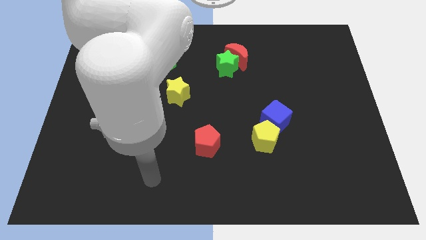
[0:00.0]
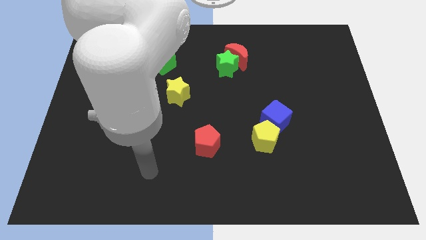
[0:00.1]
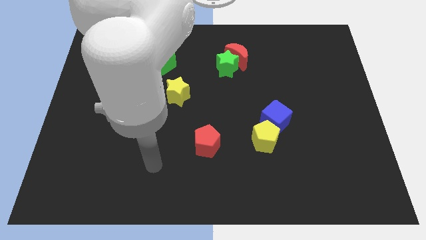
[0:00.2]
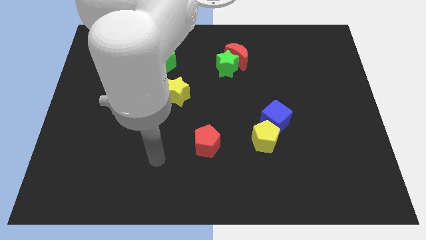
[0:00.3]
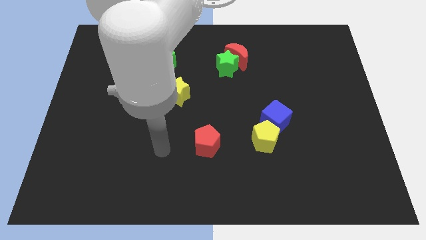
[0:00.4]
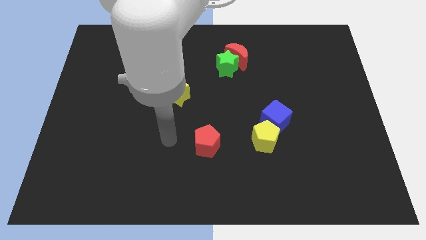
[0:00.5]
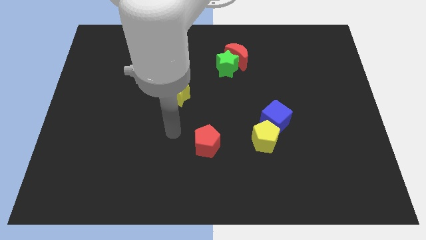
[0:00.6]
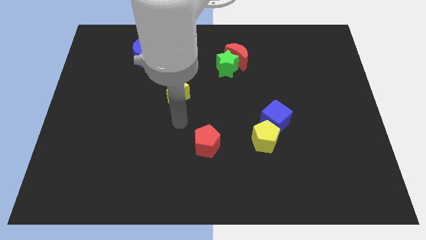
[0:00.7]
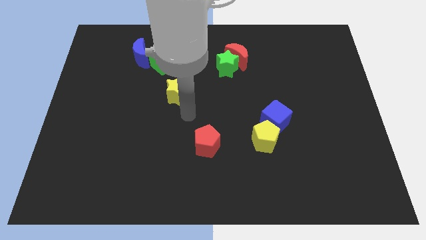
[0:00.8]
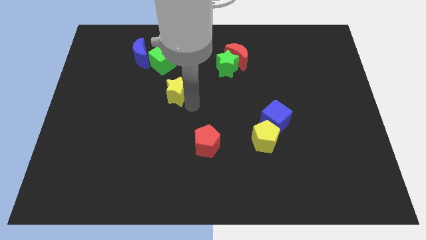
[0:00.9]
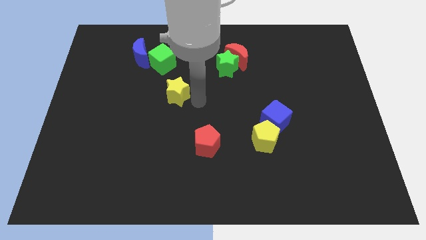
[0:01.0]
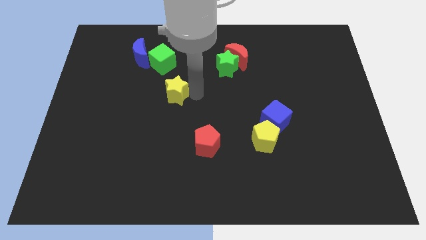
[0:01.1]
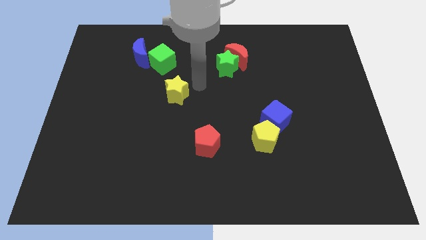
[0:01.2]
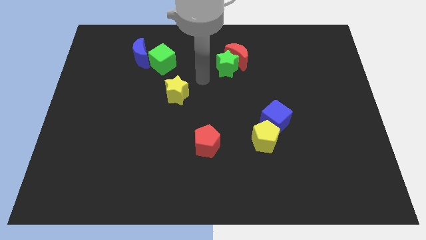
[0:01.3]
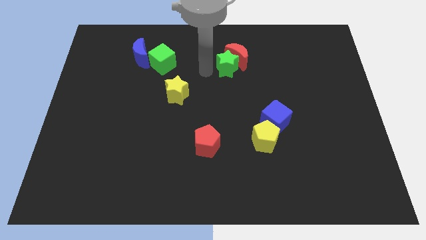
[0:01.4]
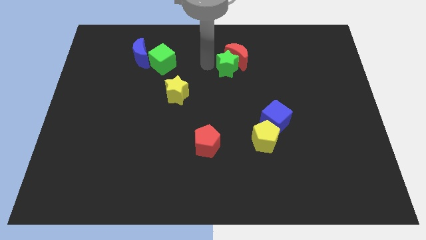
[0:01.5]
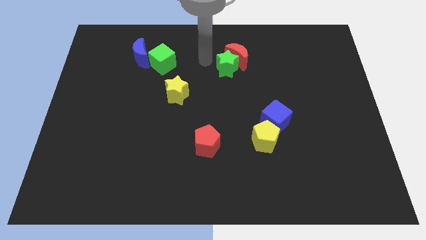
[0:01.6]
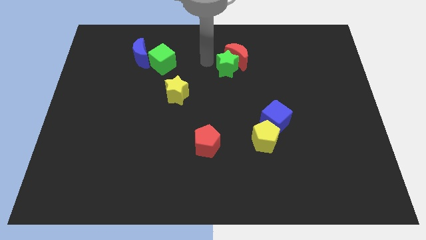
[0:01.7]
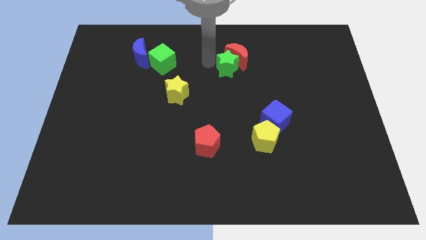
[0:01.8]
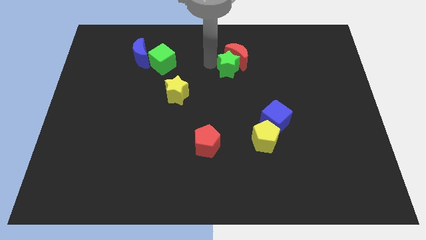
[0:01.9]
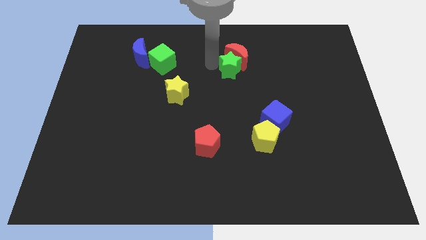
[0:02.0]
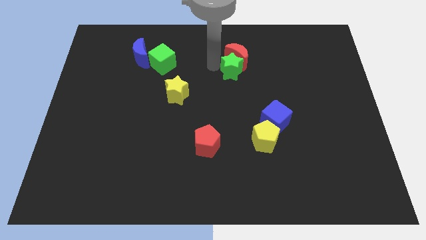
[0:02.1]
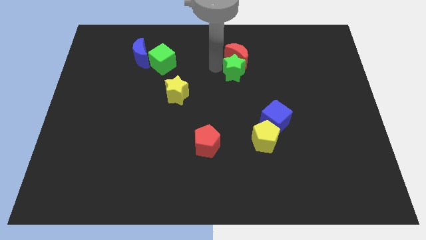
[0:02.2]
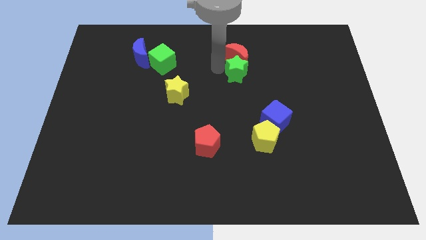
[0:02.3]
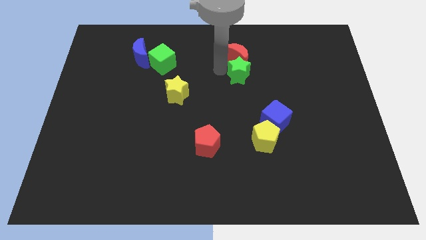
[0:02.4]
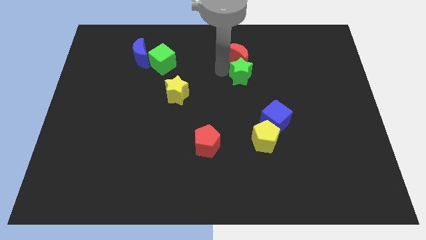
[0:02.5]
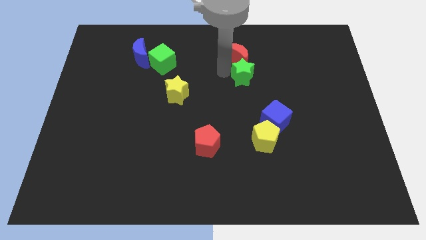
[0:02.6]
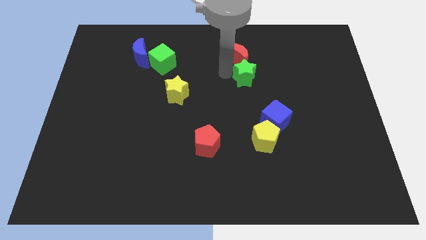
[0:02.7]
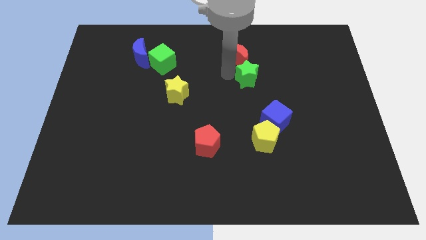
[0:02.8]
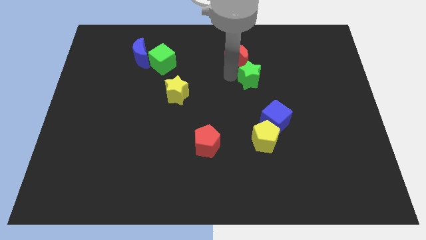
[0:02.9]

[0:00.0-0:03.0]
slightly move the green star downwards and then right

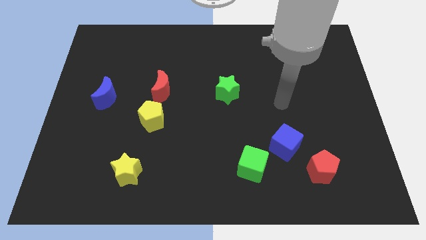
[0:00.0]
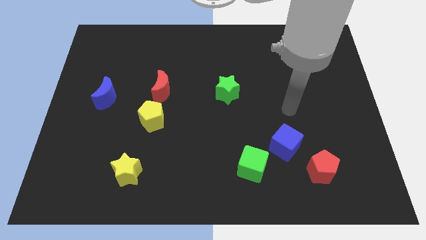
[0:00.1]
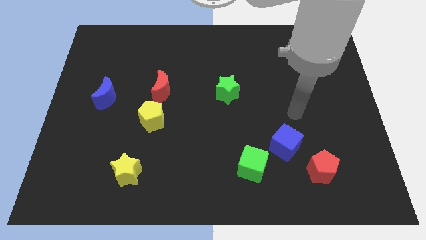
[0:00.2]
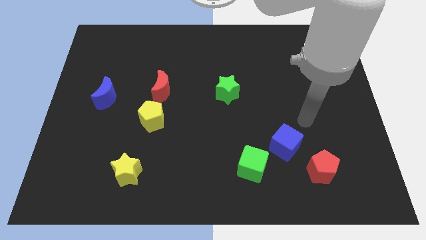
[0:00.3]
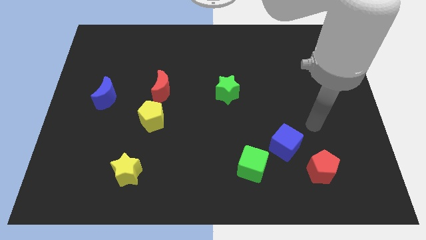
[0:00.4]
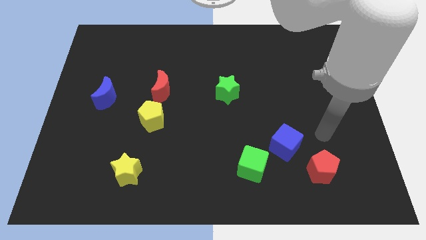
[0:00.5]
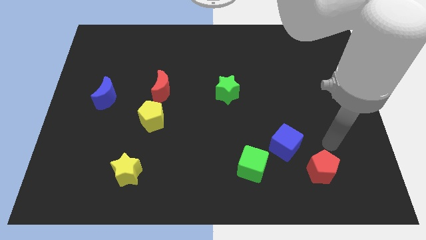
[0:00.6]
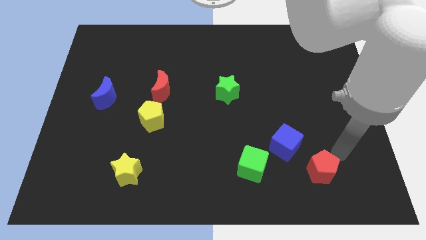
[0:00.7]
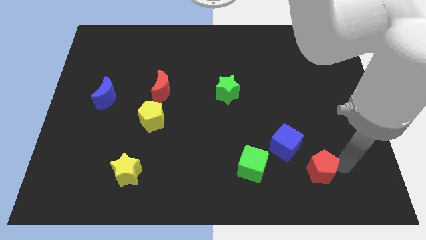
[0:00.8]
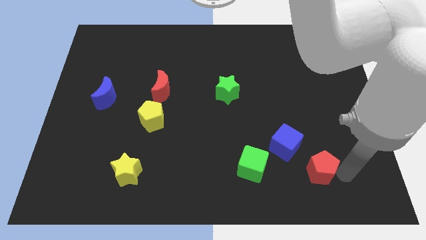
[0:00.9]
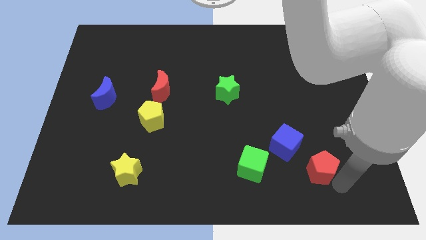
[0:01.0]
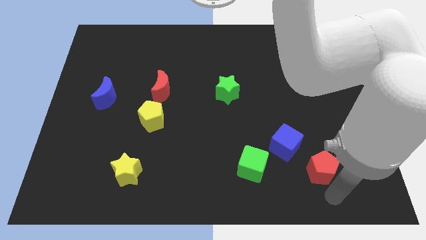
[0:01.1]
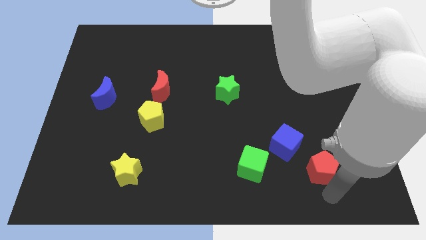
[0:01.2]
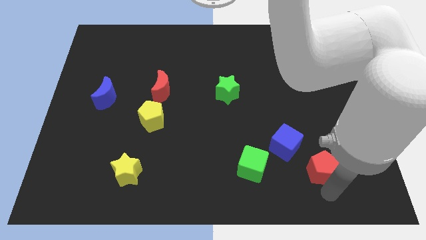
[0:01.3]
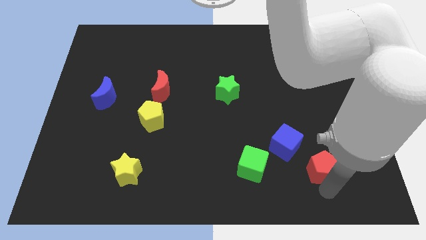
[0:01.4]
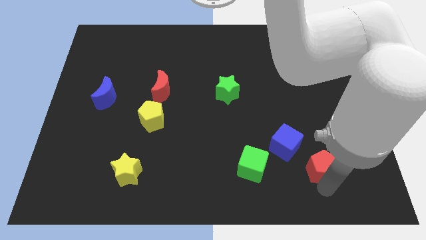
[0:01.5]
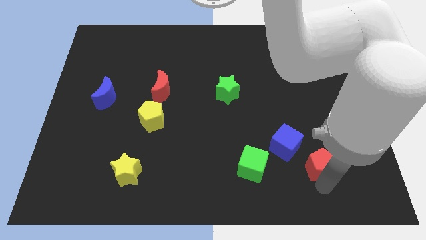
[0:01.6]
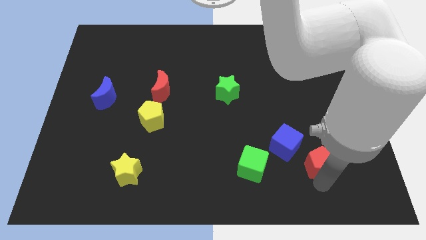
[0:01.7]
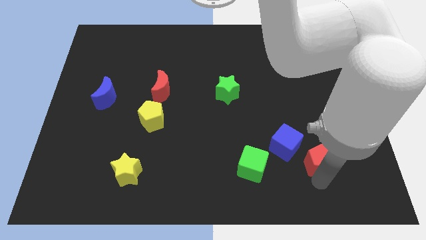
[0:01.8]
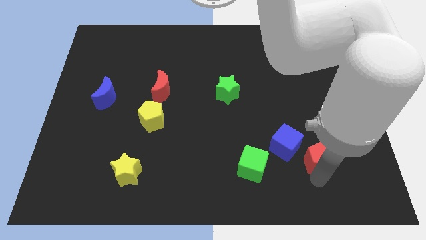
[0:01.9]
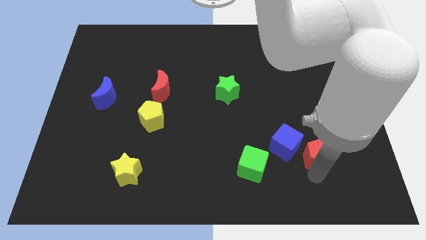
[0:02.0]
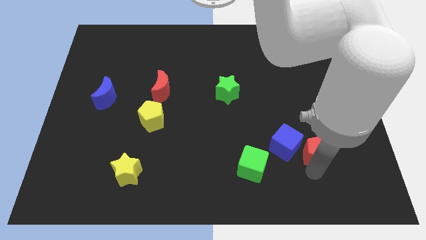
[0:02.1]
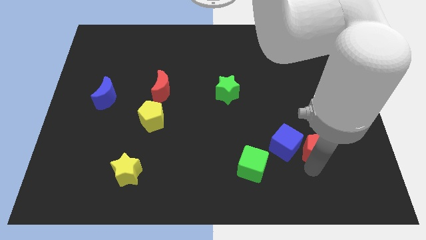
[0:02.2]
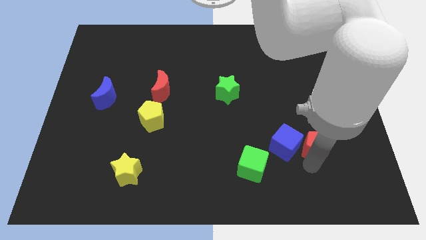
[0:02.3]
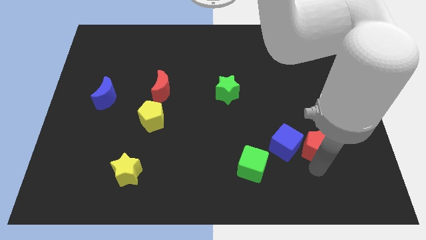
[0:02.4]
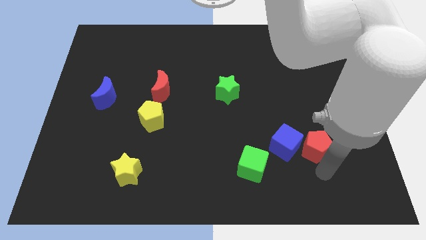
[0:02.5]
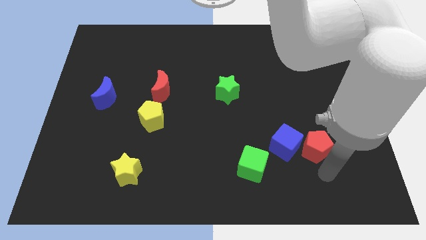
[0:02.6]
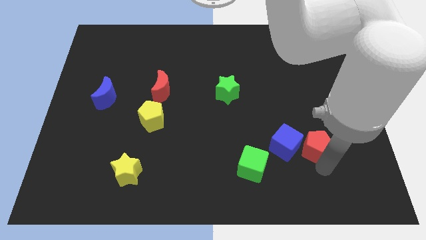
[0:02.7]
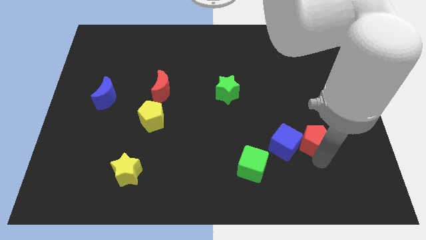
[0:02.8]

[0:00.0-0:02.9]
move the red pentagon a little bit up

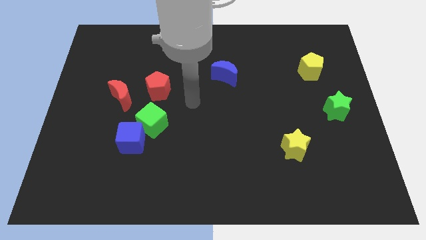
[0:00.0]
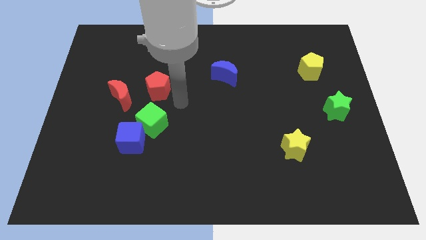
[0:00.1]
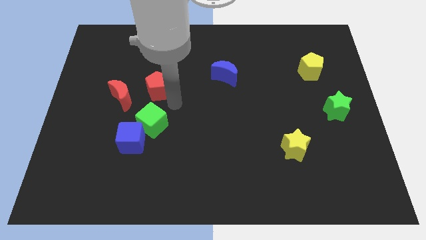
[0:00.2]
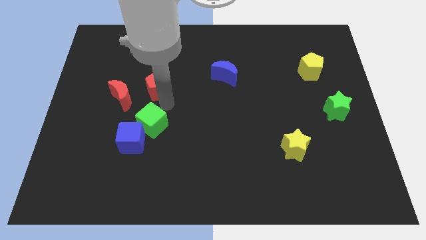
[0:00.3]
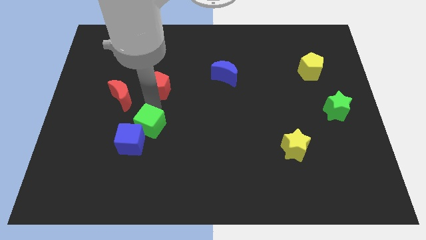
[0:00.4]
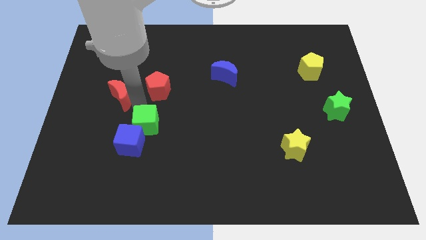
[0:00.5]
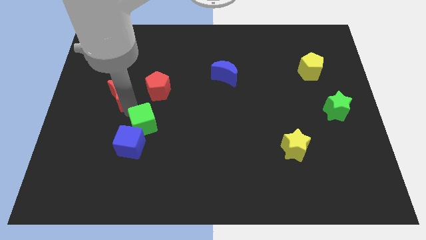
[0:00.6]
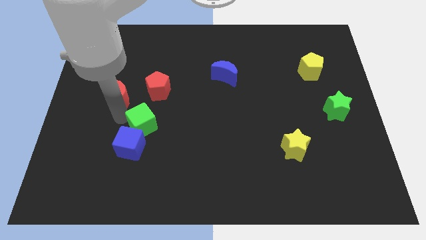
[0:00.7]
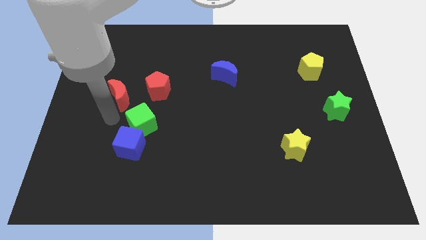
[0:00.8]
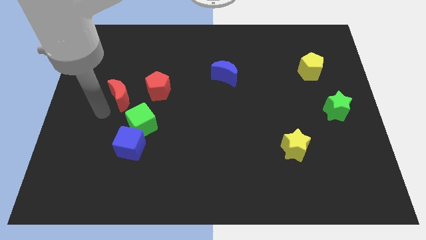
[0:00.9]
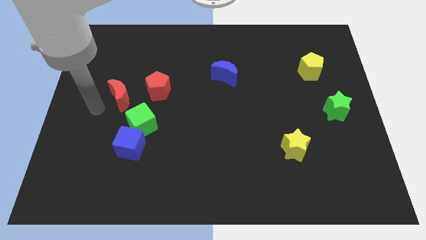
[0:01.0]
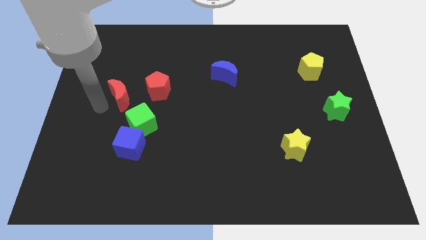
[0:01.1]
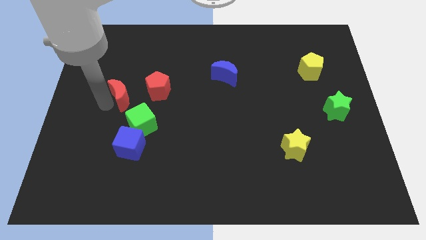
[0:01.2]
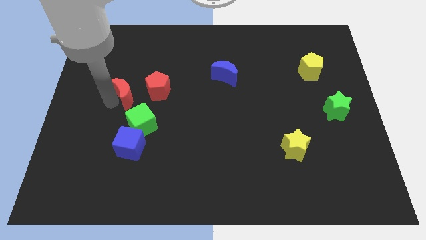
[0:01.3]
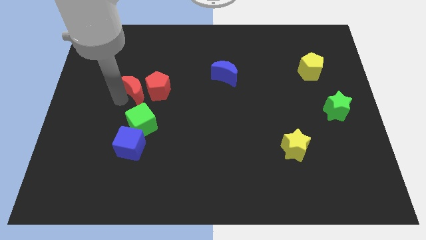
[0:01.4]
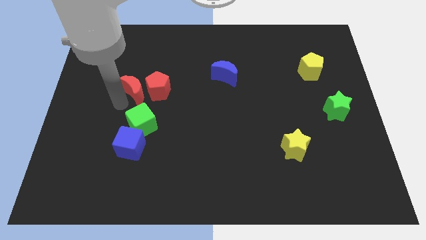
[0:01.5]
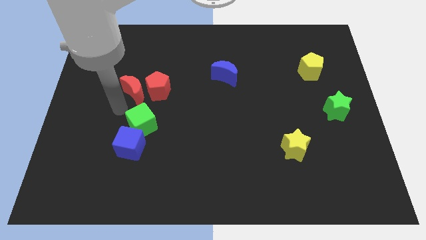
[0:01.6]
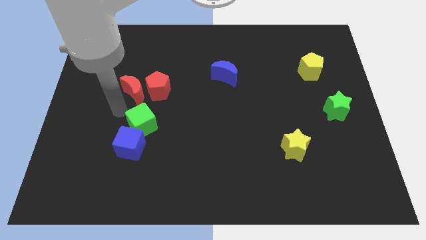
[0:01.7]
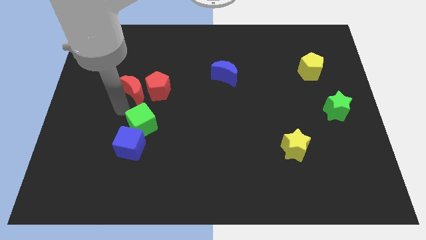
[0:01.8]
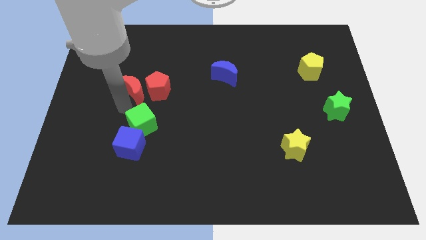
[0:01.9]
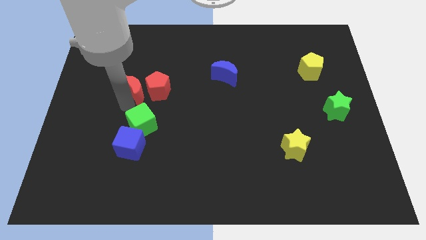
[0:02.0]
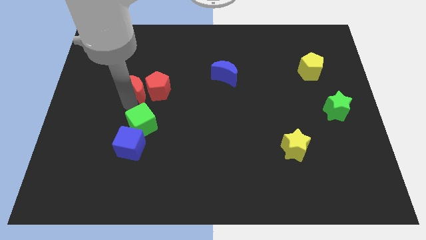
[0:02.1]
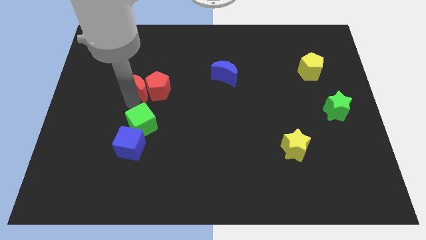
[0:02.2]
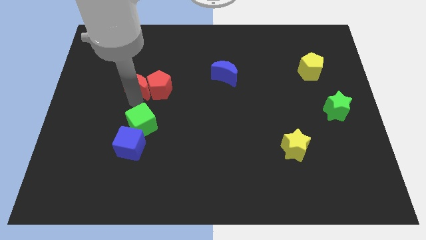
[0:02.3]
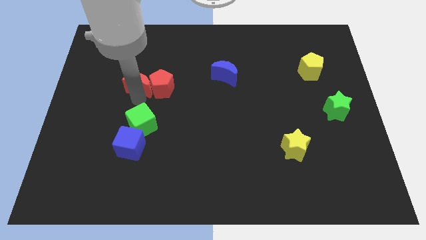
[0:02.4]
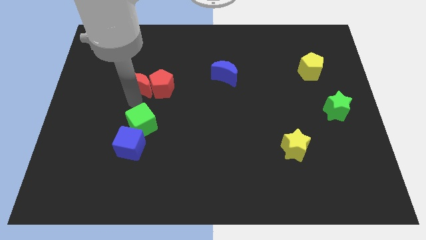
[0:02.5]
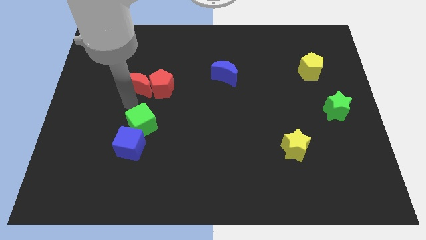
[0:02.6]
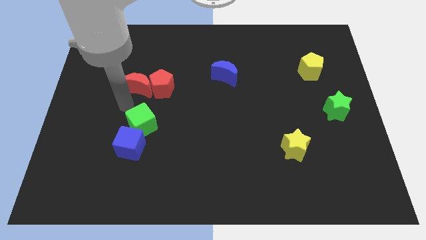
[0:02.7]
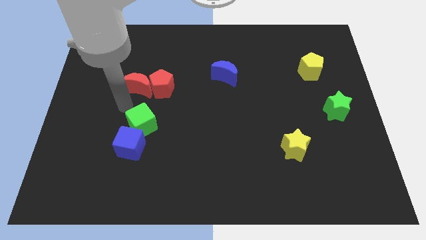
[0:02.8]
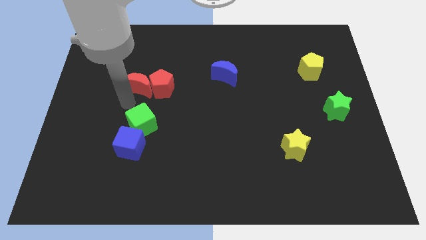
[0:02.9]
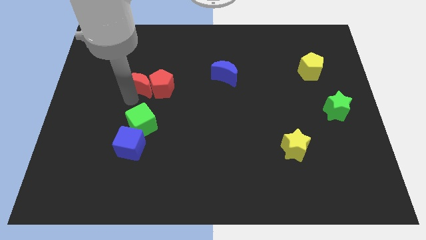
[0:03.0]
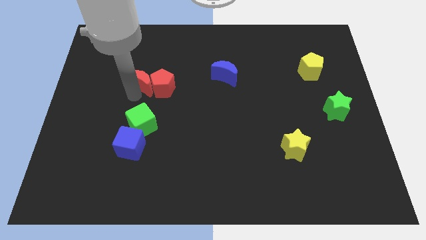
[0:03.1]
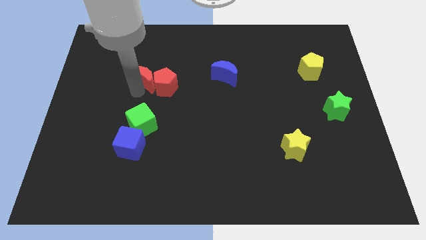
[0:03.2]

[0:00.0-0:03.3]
slide the red moon up and then right a little bit
